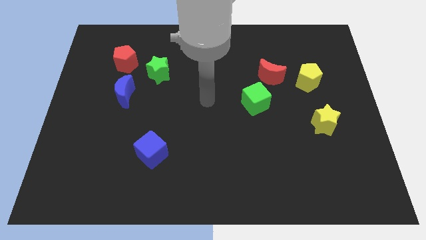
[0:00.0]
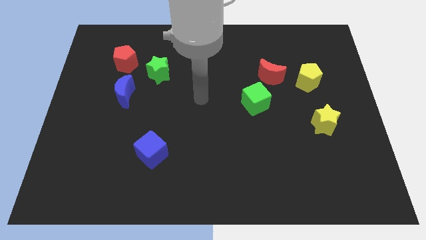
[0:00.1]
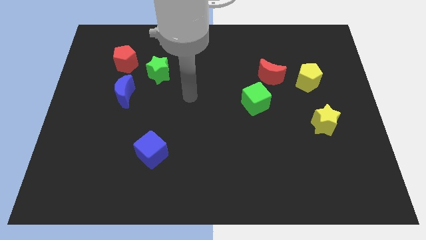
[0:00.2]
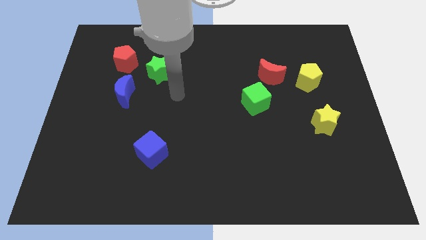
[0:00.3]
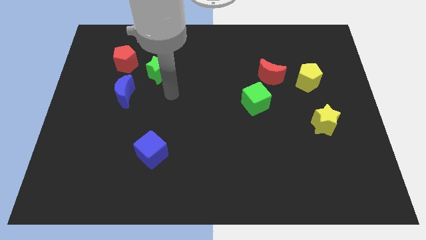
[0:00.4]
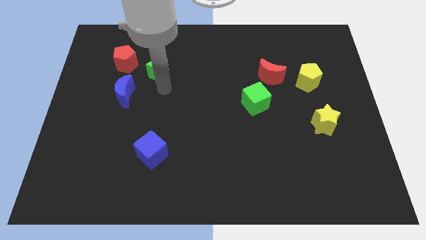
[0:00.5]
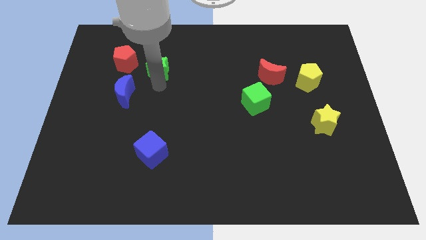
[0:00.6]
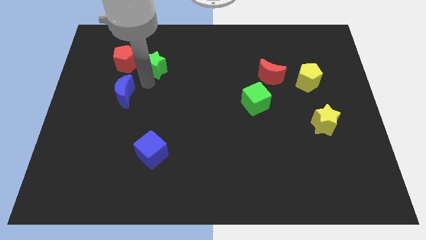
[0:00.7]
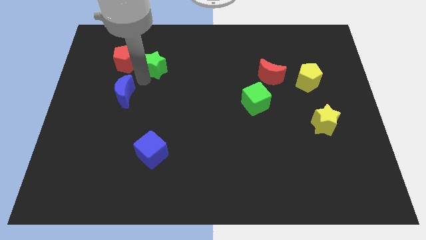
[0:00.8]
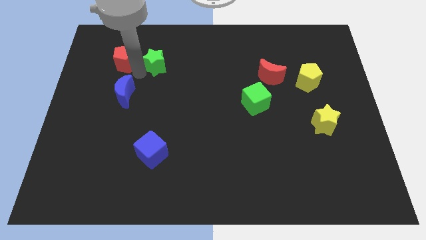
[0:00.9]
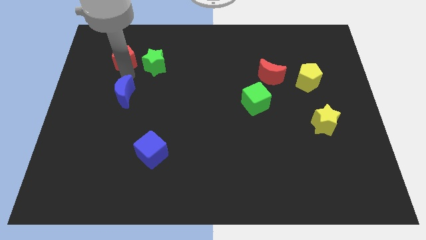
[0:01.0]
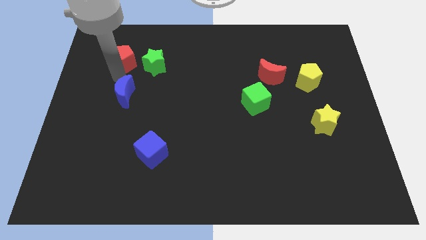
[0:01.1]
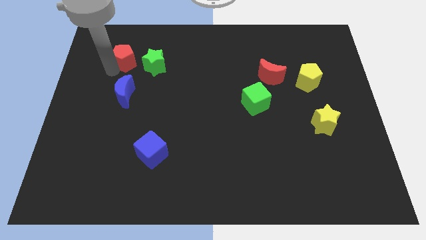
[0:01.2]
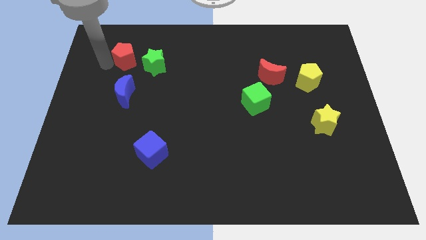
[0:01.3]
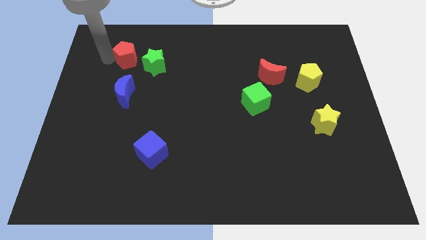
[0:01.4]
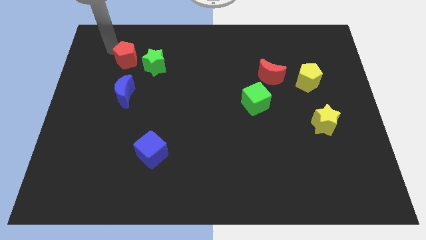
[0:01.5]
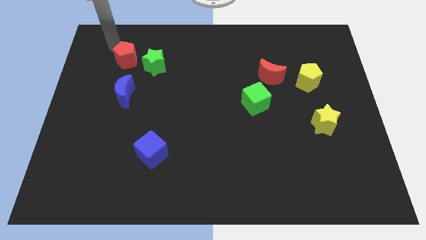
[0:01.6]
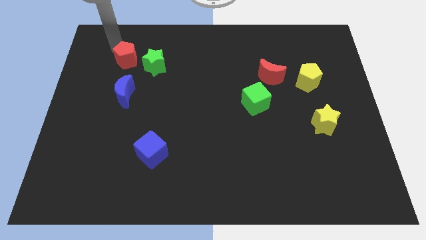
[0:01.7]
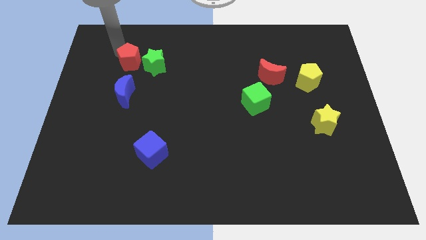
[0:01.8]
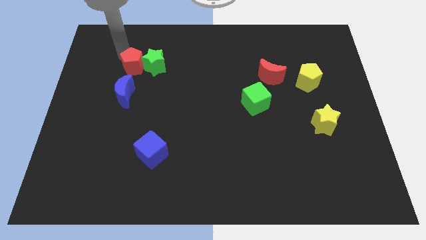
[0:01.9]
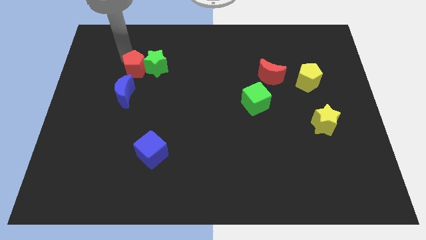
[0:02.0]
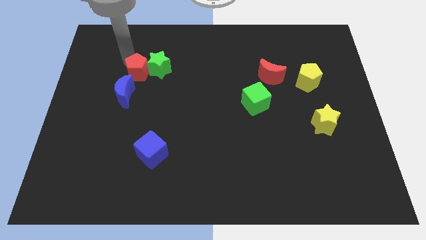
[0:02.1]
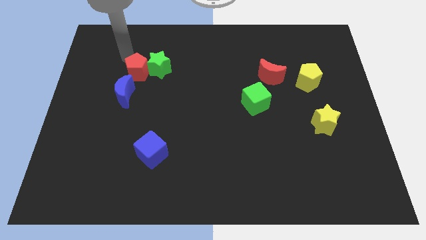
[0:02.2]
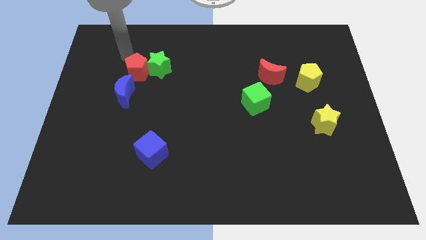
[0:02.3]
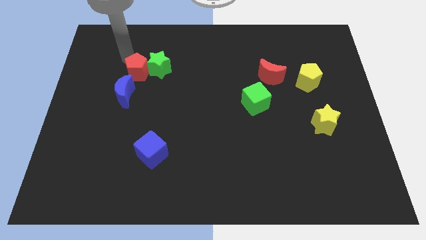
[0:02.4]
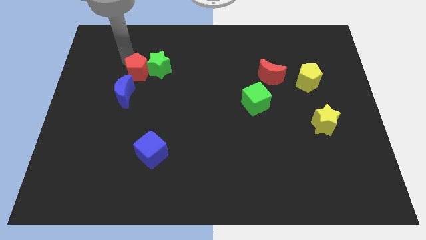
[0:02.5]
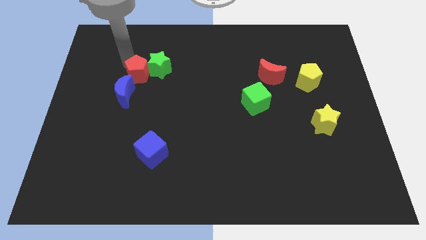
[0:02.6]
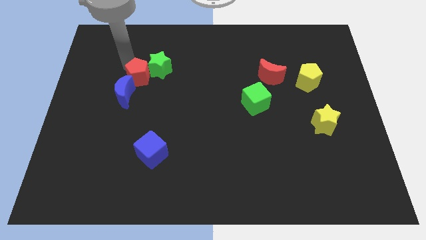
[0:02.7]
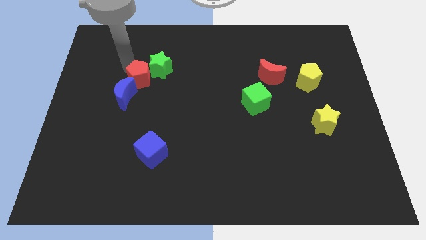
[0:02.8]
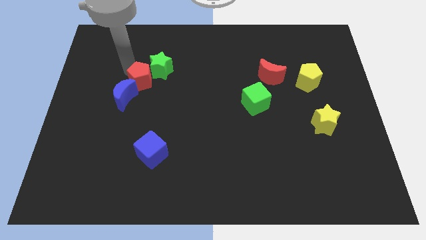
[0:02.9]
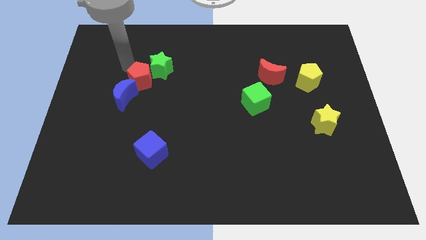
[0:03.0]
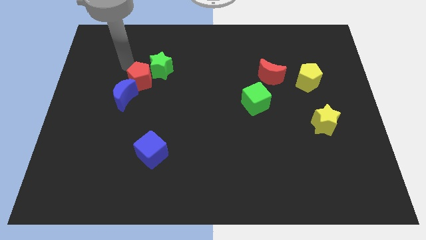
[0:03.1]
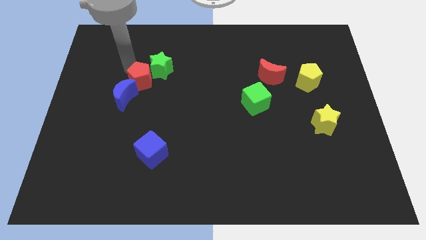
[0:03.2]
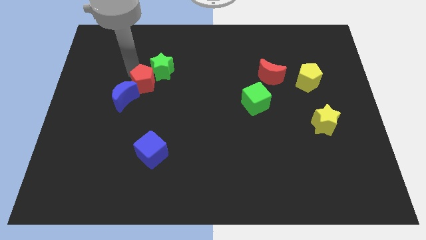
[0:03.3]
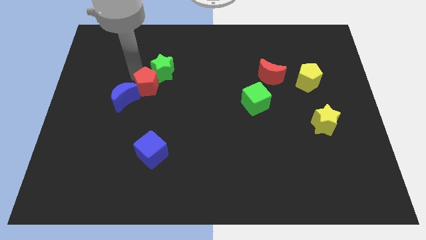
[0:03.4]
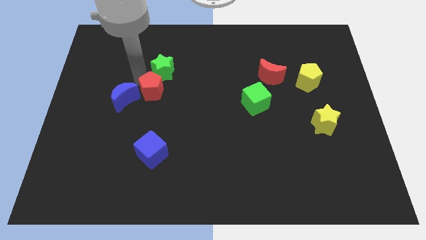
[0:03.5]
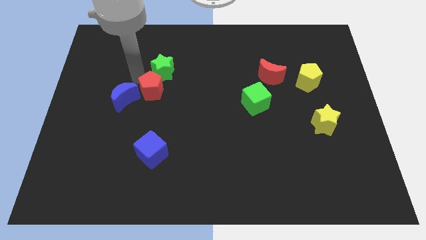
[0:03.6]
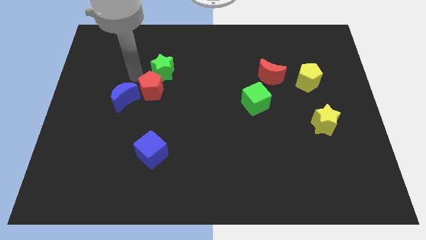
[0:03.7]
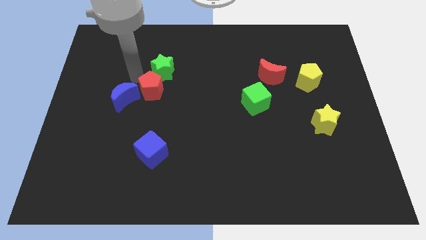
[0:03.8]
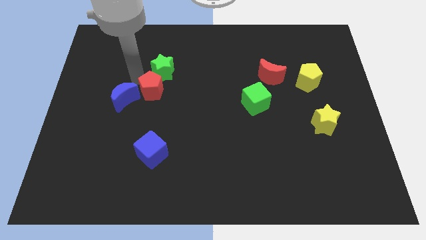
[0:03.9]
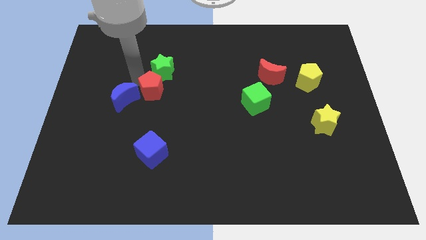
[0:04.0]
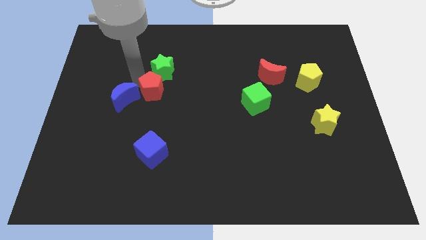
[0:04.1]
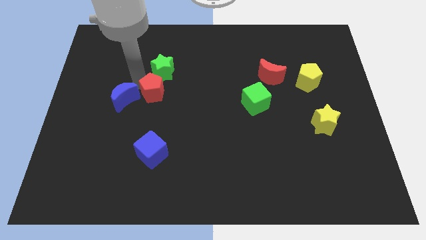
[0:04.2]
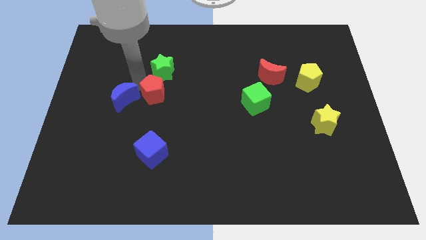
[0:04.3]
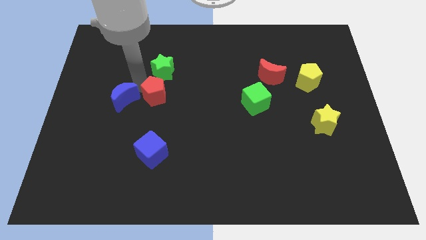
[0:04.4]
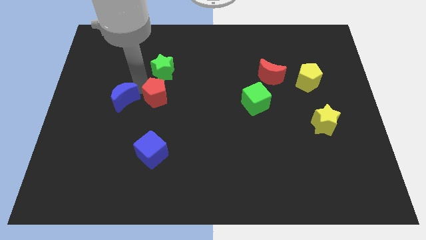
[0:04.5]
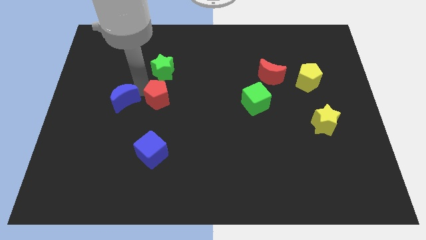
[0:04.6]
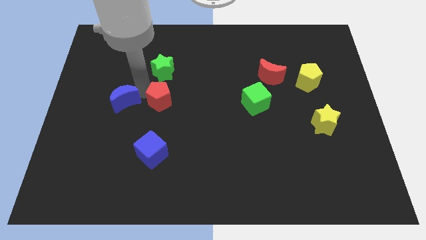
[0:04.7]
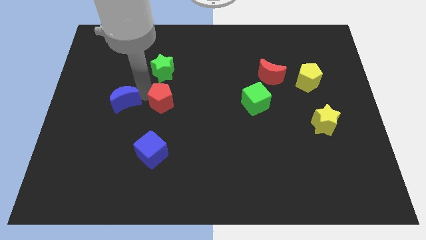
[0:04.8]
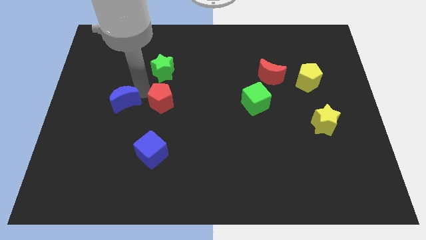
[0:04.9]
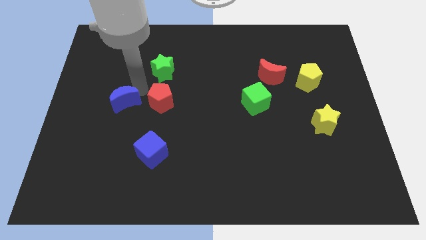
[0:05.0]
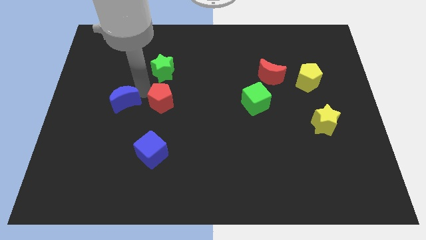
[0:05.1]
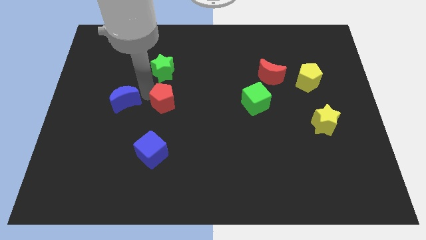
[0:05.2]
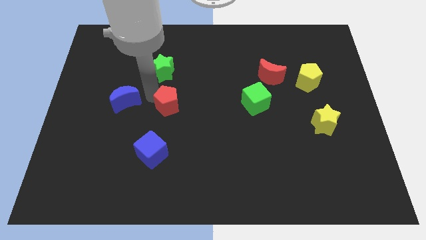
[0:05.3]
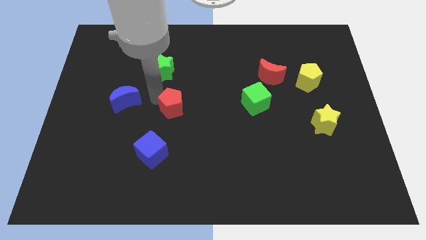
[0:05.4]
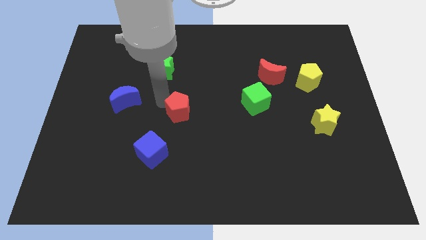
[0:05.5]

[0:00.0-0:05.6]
move the red pentagon downwards and to the right

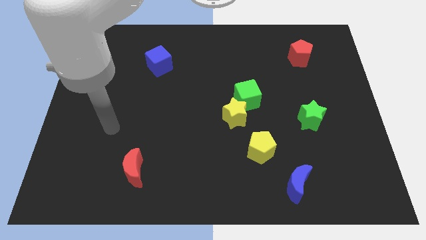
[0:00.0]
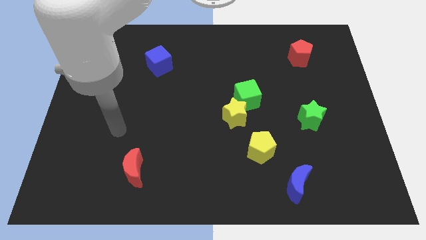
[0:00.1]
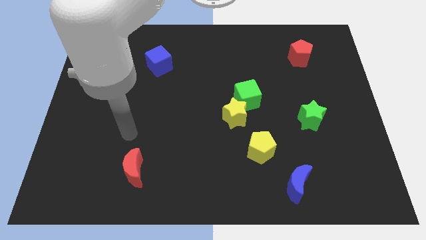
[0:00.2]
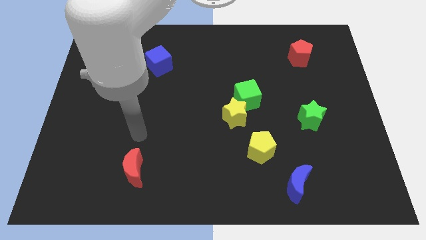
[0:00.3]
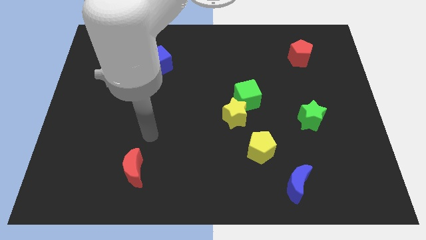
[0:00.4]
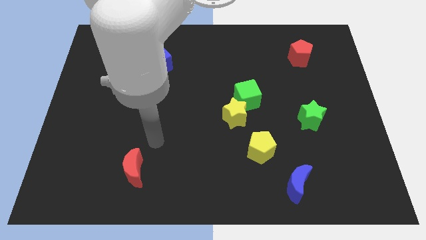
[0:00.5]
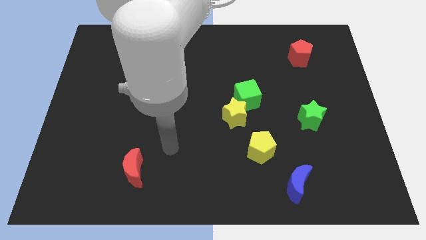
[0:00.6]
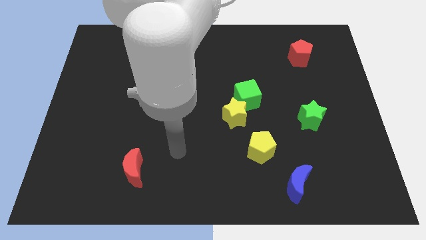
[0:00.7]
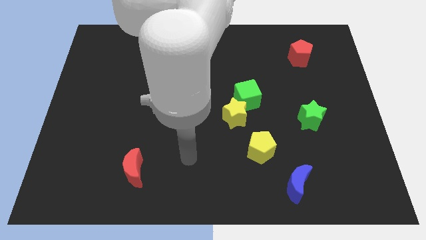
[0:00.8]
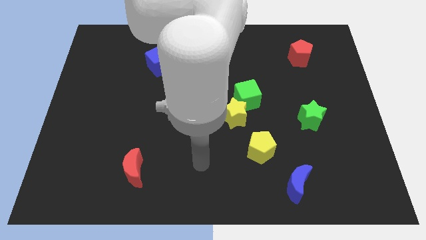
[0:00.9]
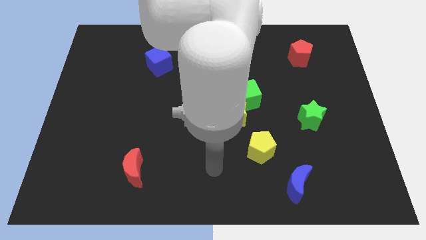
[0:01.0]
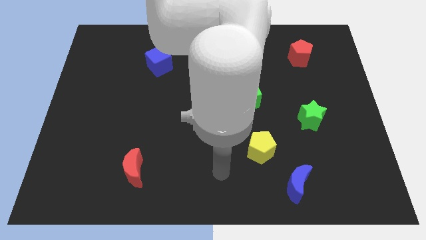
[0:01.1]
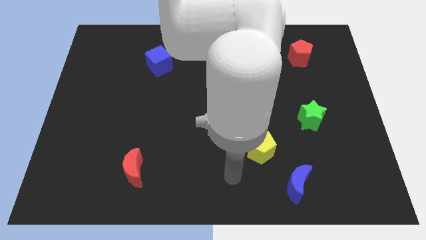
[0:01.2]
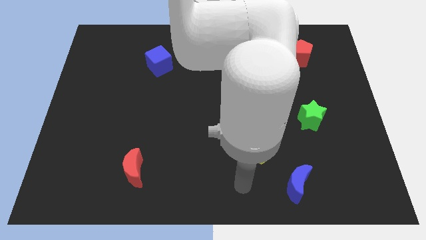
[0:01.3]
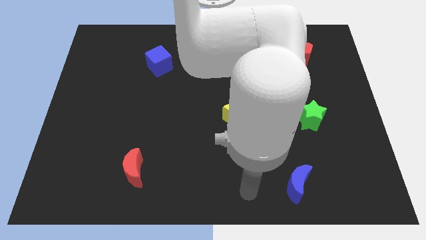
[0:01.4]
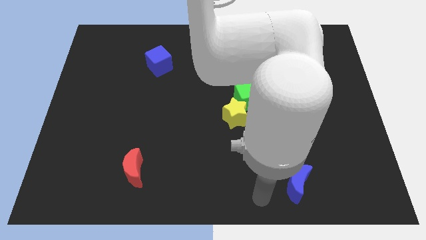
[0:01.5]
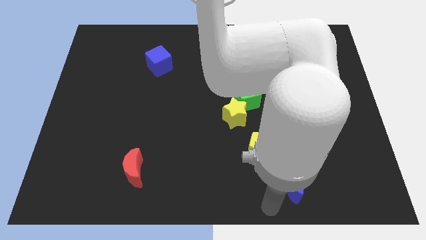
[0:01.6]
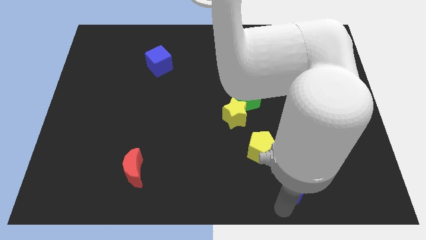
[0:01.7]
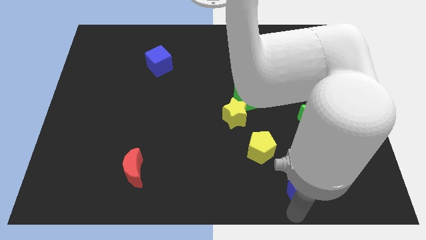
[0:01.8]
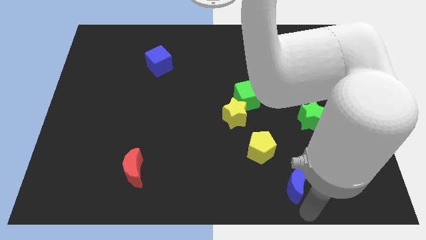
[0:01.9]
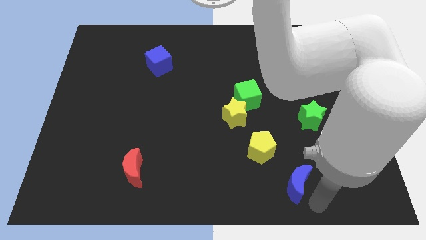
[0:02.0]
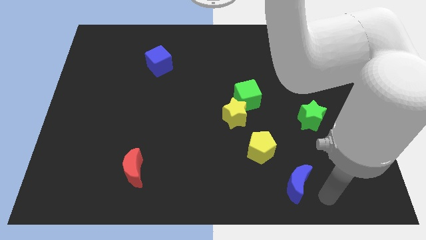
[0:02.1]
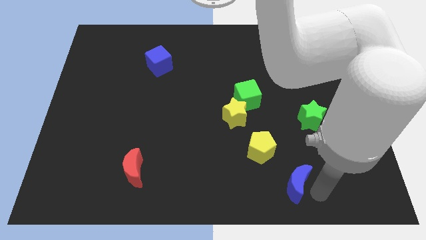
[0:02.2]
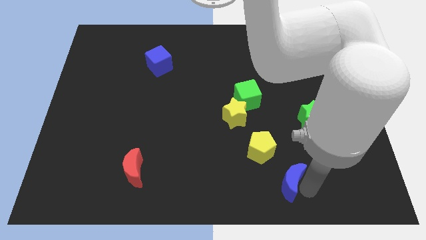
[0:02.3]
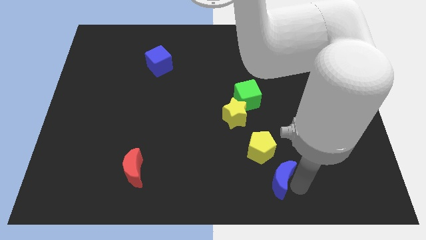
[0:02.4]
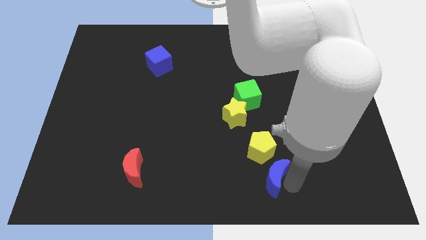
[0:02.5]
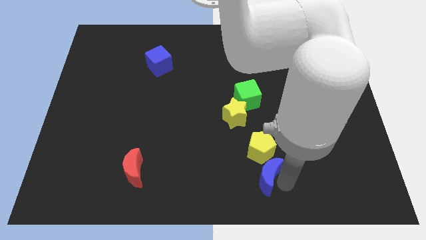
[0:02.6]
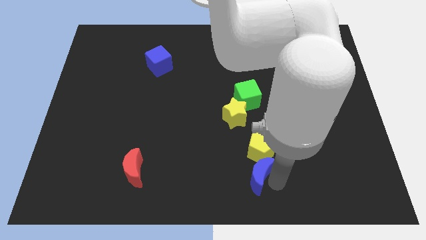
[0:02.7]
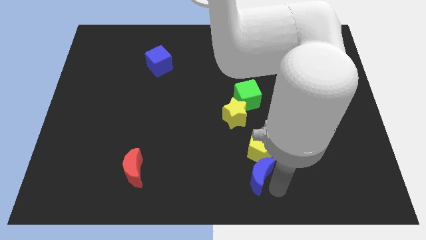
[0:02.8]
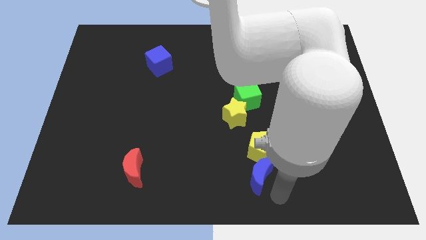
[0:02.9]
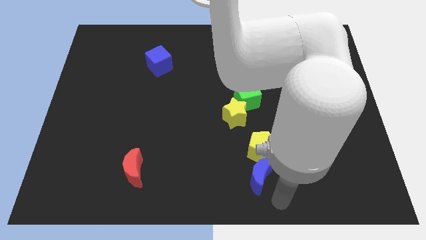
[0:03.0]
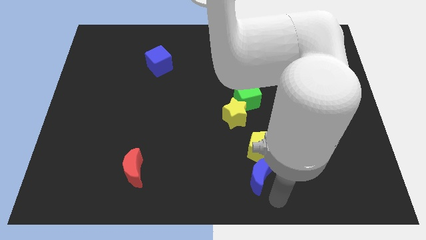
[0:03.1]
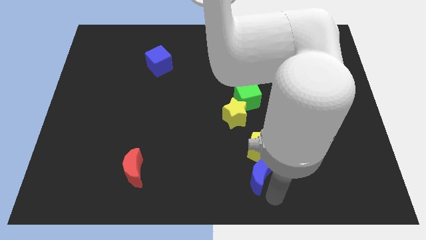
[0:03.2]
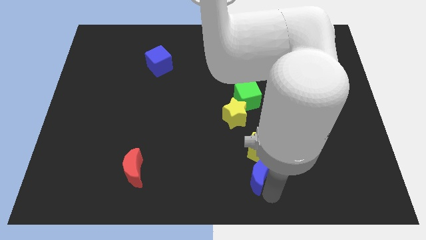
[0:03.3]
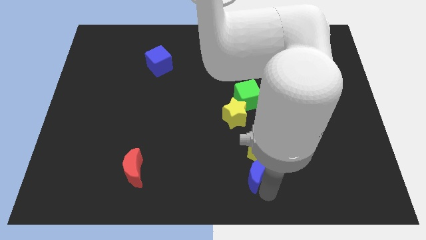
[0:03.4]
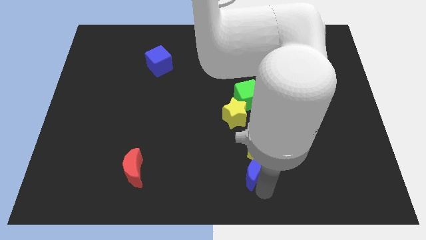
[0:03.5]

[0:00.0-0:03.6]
move the blue moon a bit up and then left
